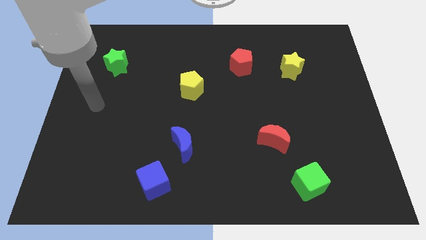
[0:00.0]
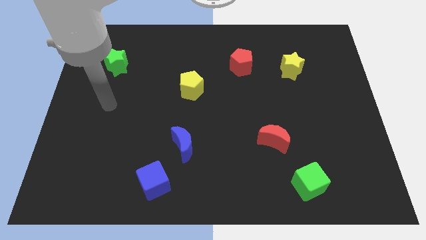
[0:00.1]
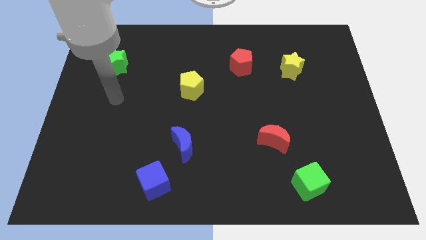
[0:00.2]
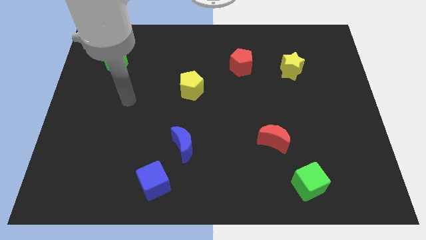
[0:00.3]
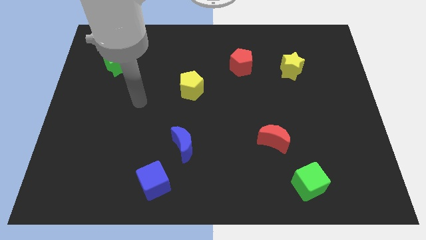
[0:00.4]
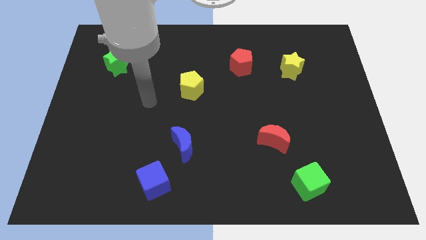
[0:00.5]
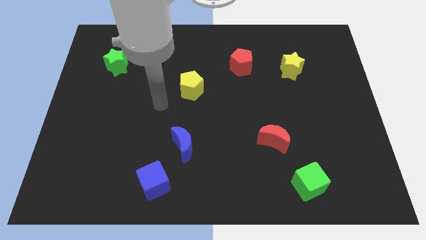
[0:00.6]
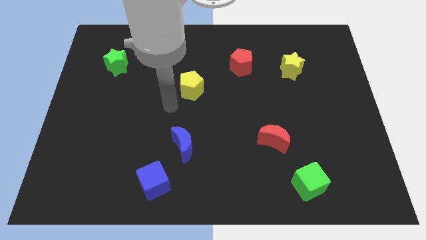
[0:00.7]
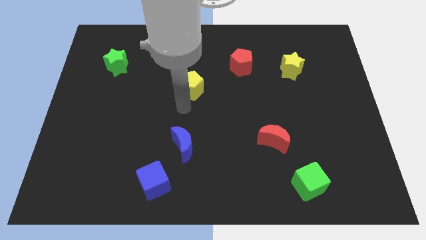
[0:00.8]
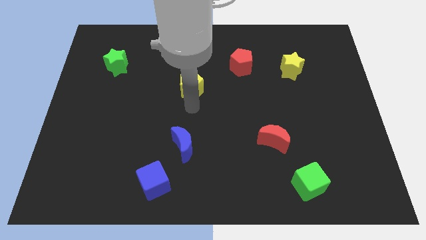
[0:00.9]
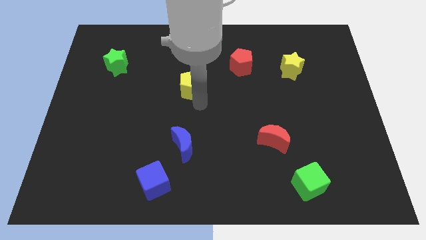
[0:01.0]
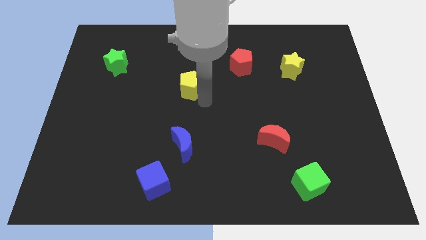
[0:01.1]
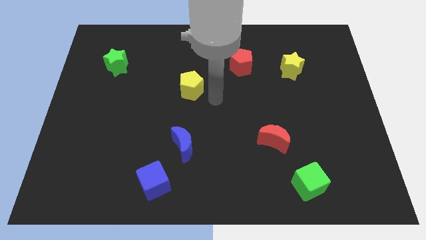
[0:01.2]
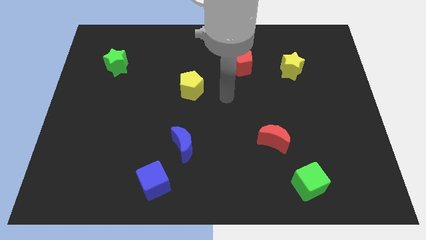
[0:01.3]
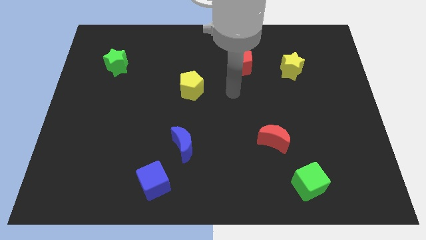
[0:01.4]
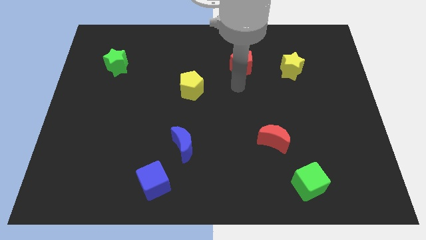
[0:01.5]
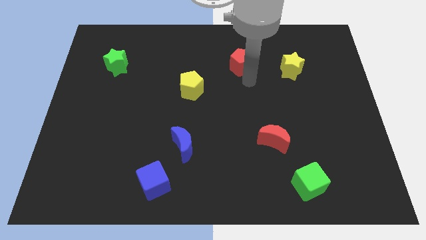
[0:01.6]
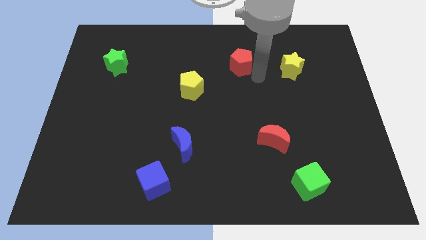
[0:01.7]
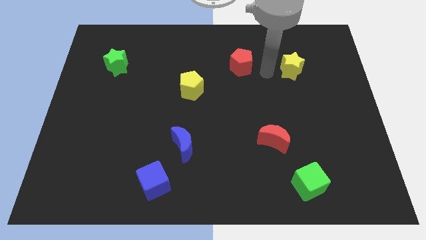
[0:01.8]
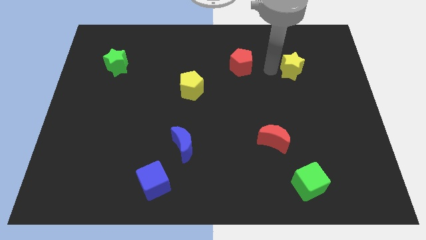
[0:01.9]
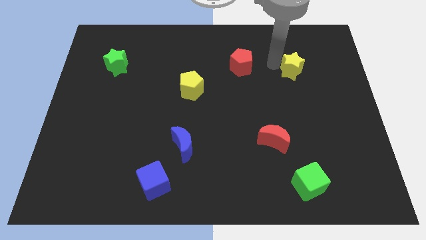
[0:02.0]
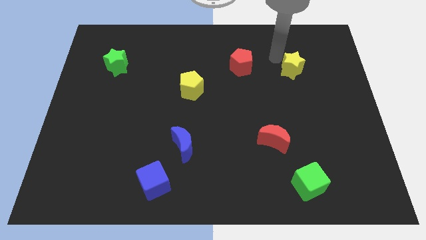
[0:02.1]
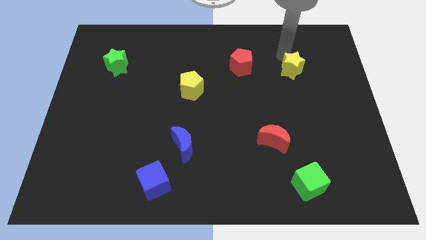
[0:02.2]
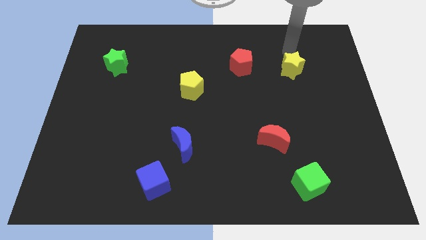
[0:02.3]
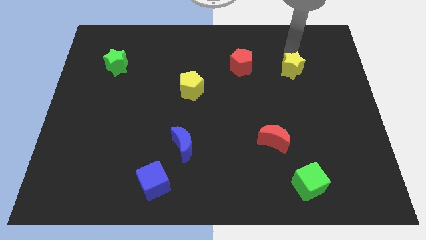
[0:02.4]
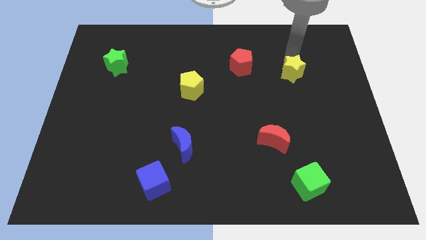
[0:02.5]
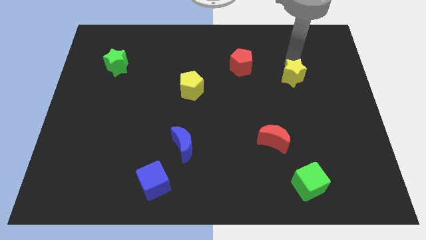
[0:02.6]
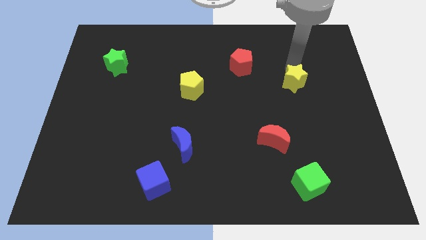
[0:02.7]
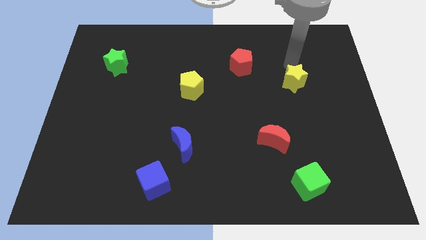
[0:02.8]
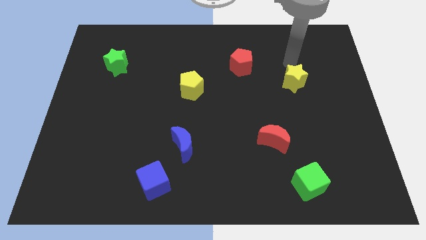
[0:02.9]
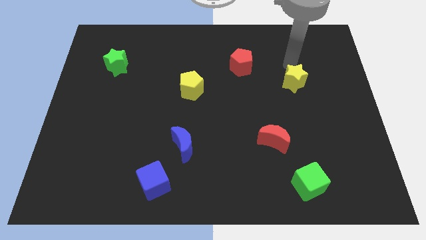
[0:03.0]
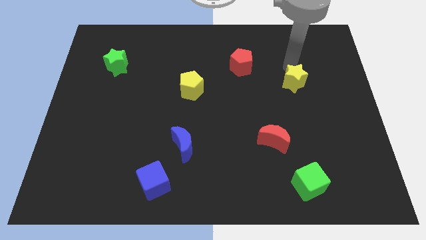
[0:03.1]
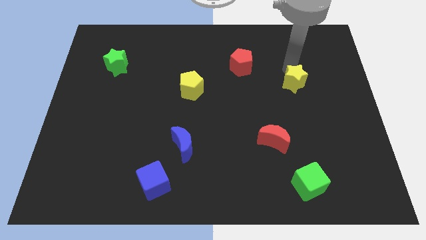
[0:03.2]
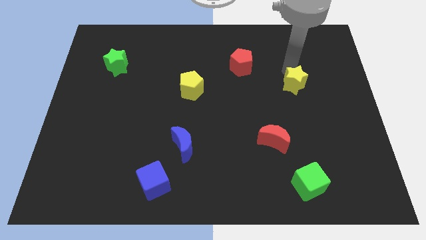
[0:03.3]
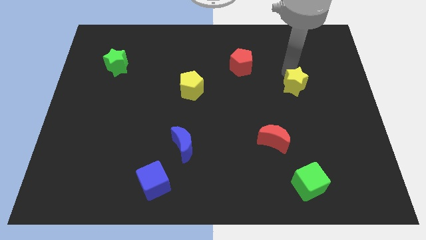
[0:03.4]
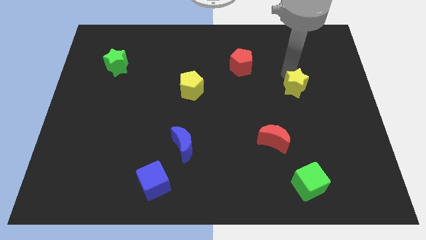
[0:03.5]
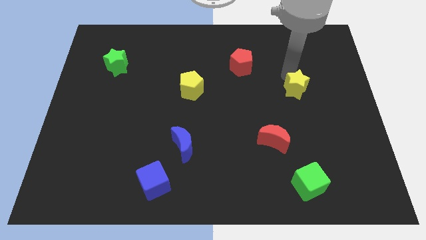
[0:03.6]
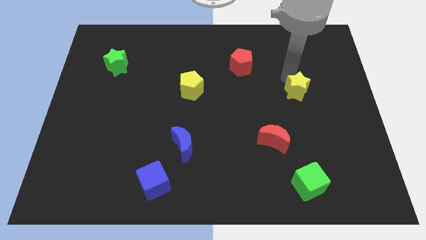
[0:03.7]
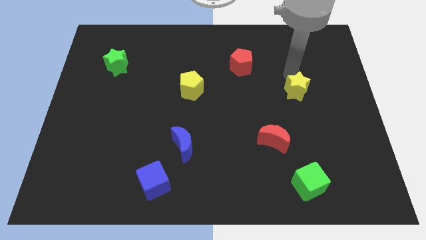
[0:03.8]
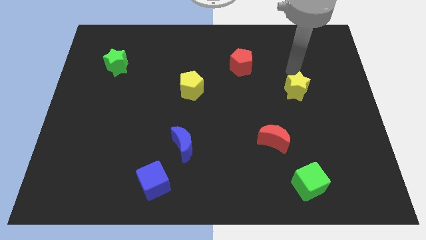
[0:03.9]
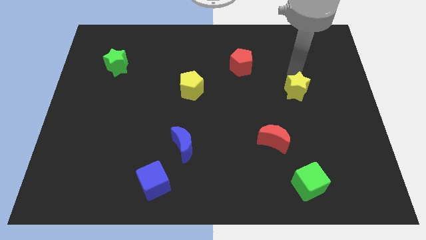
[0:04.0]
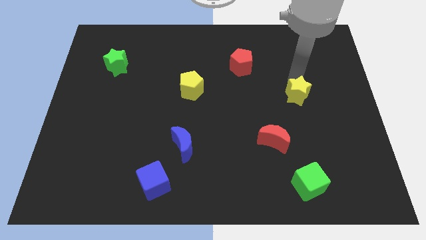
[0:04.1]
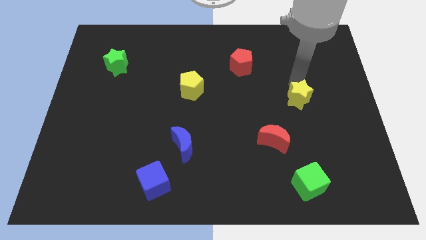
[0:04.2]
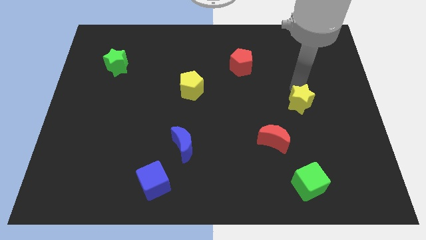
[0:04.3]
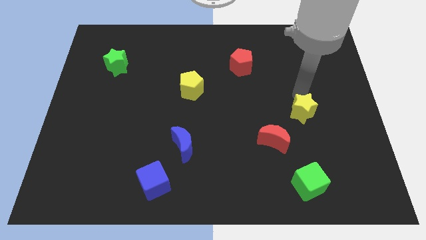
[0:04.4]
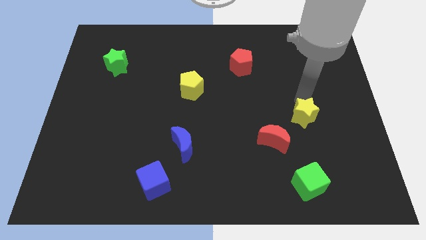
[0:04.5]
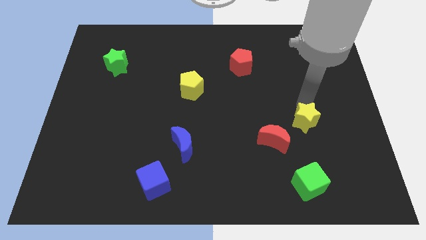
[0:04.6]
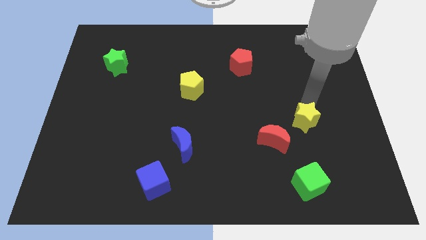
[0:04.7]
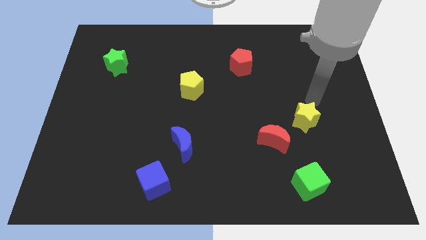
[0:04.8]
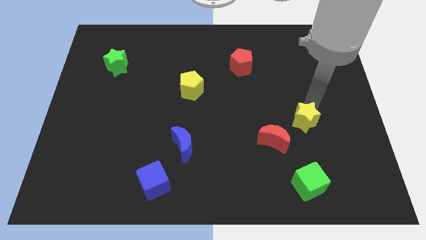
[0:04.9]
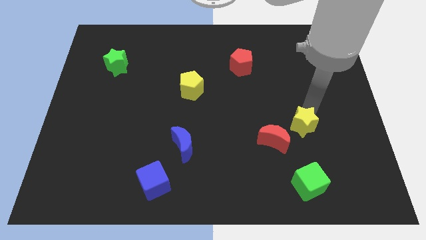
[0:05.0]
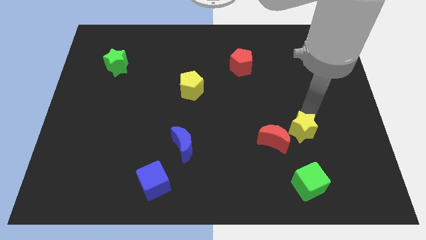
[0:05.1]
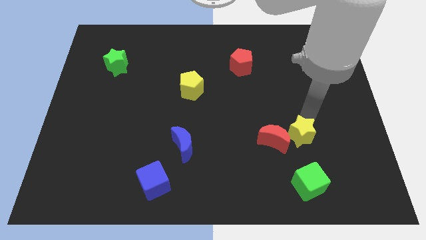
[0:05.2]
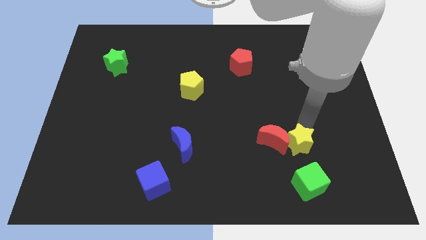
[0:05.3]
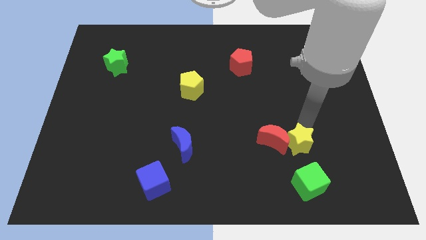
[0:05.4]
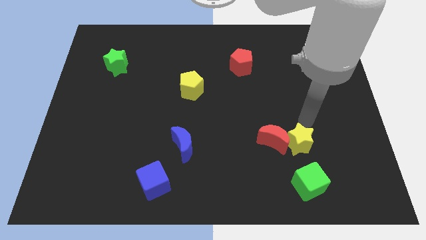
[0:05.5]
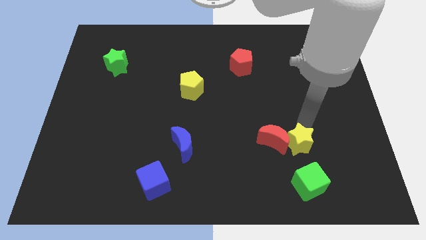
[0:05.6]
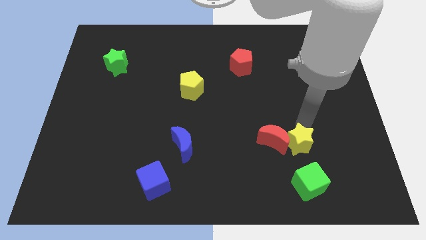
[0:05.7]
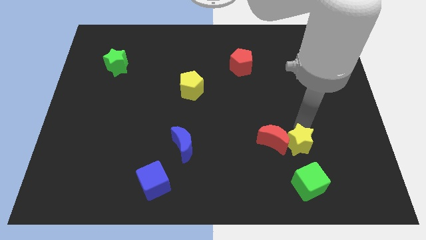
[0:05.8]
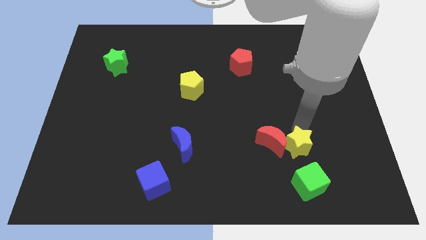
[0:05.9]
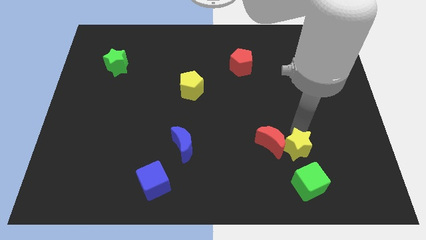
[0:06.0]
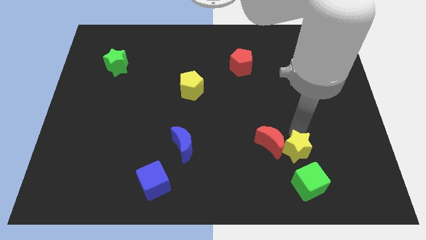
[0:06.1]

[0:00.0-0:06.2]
move the yellow star to the top left of the green cube
